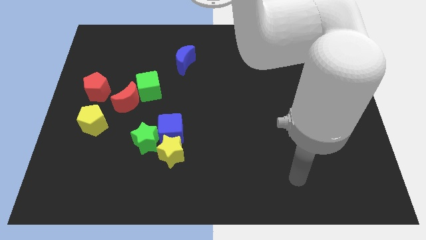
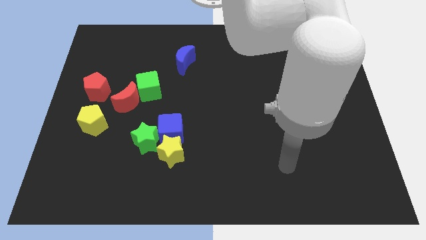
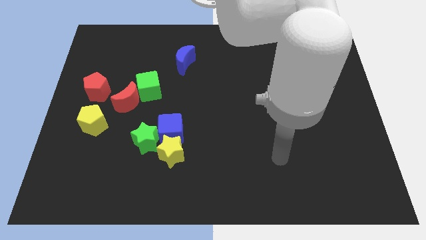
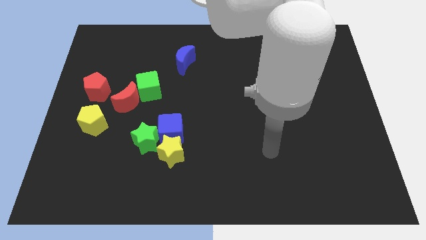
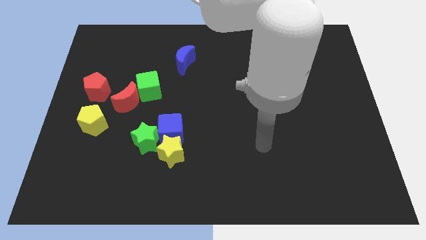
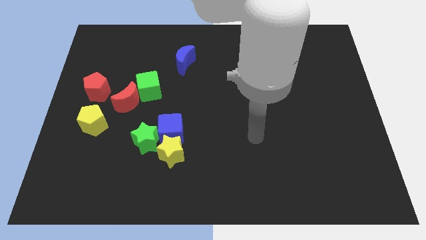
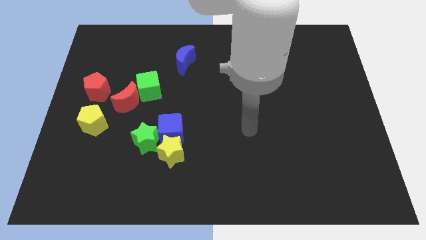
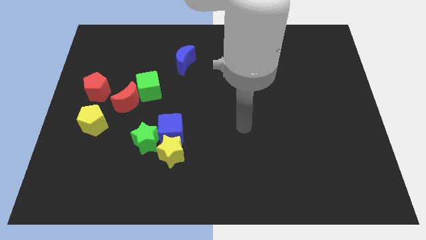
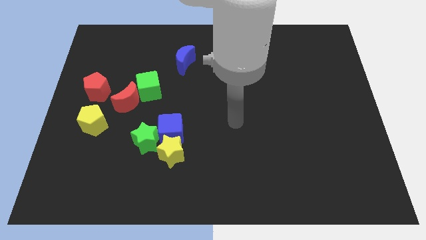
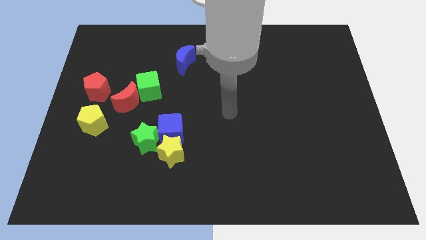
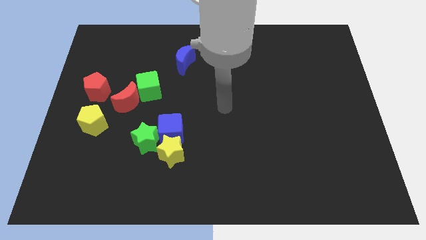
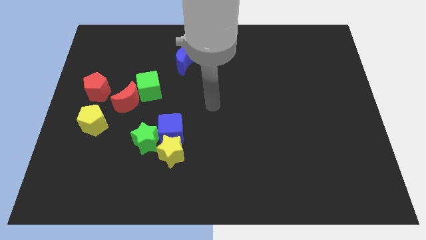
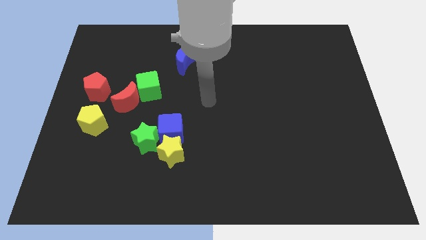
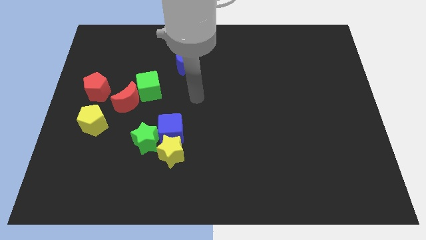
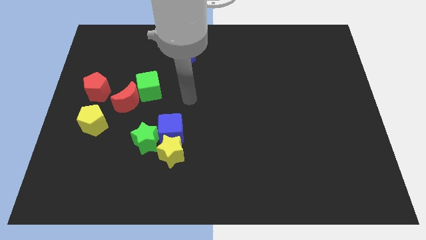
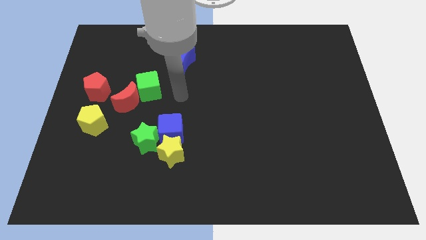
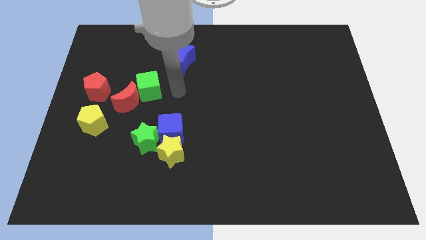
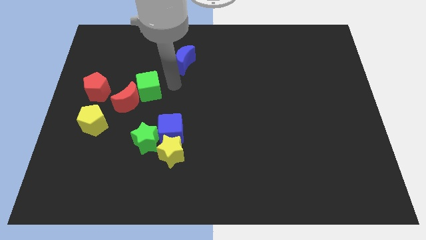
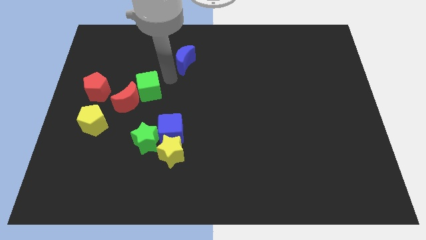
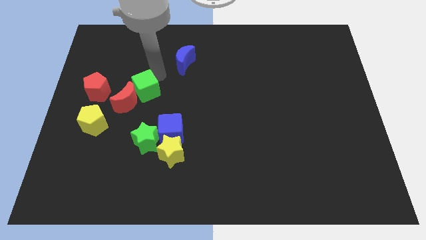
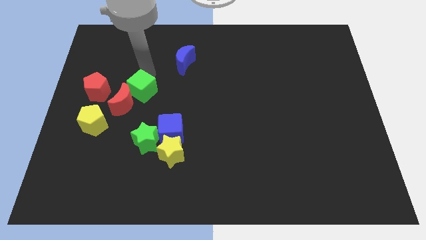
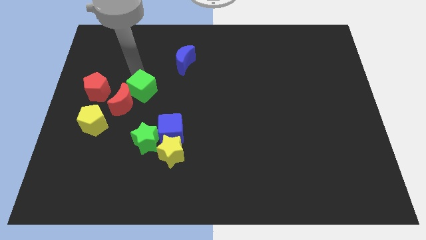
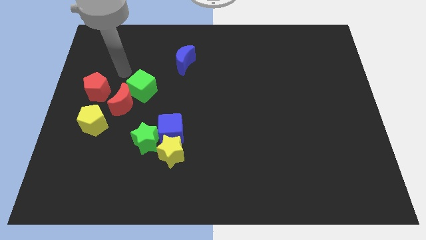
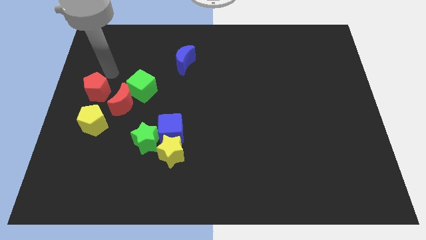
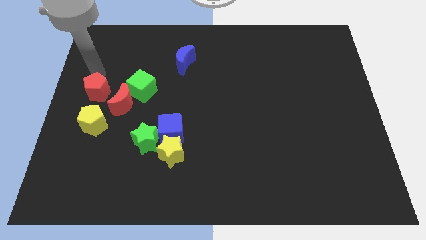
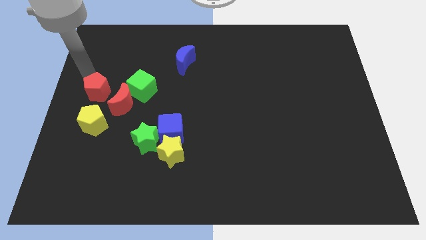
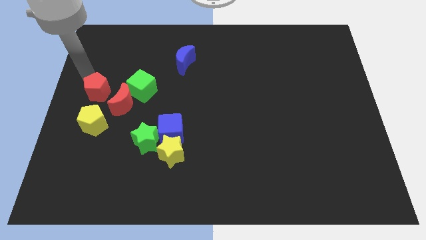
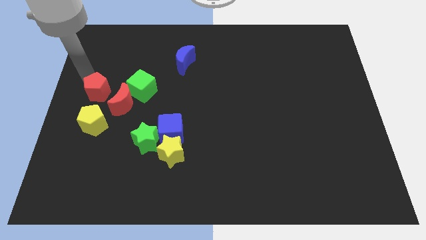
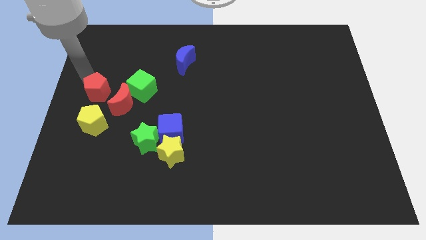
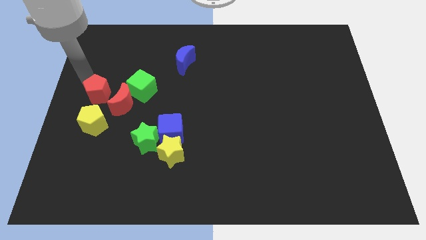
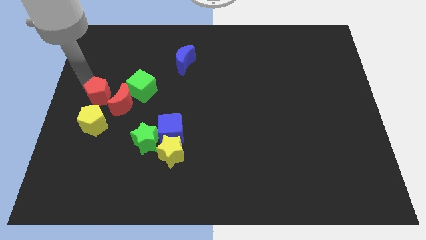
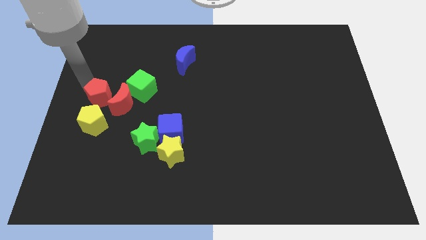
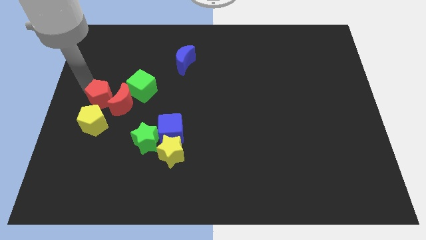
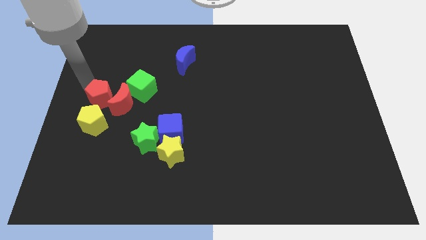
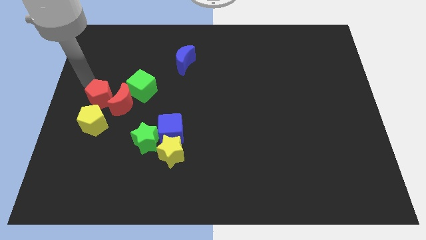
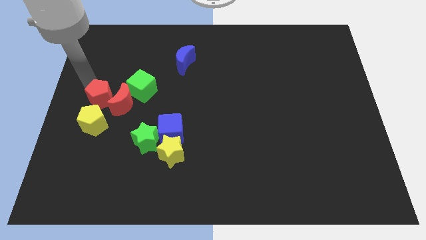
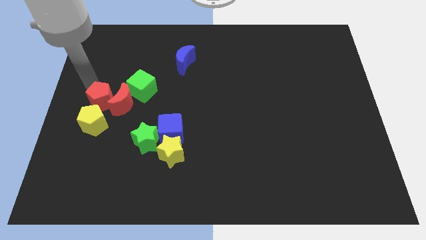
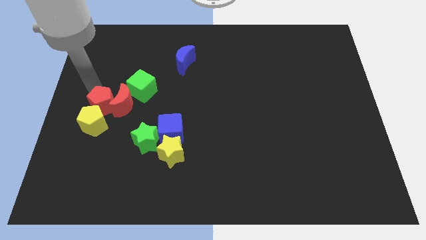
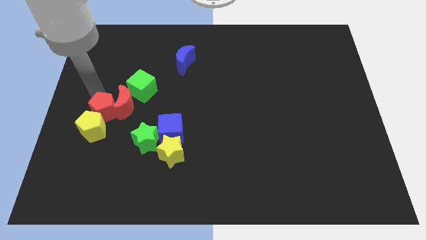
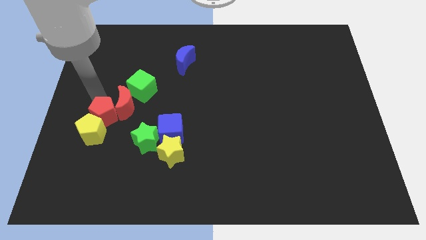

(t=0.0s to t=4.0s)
slightly push the red pentagon down

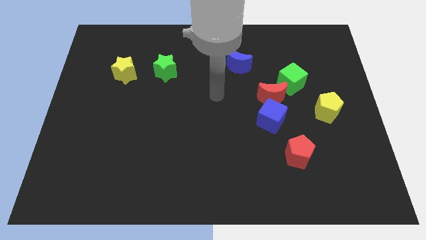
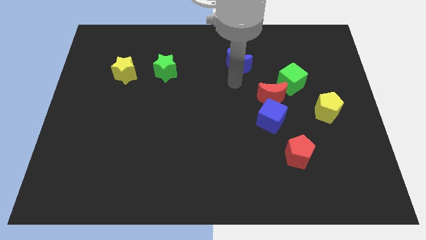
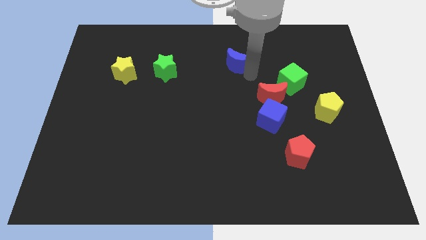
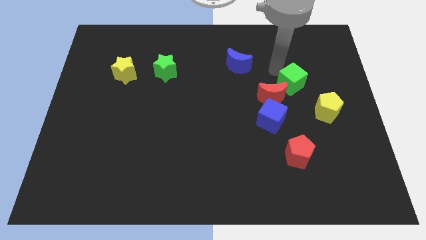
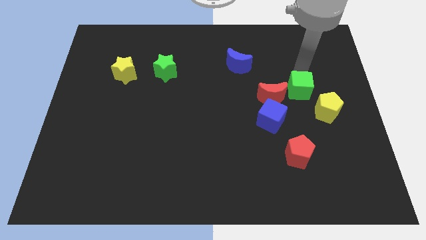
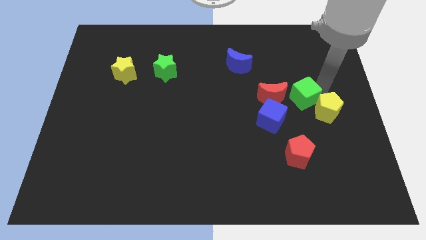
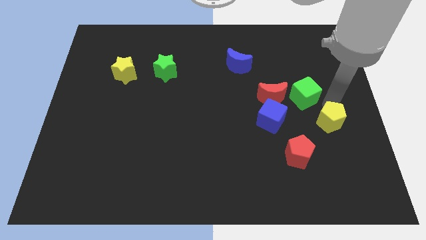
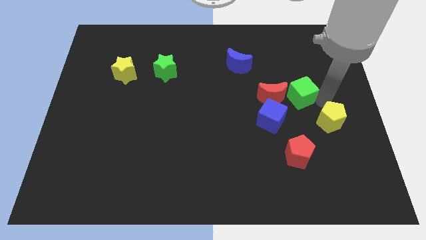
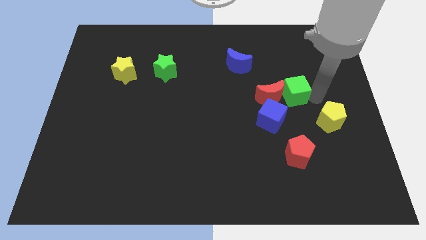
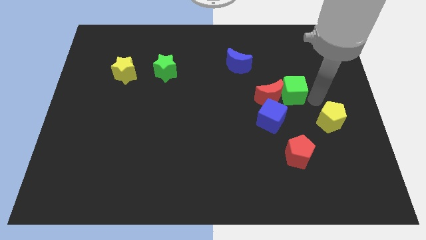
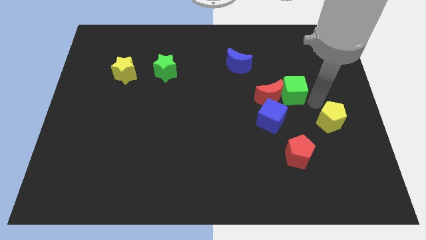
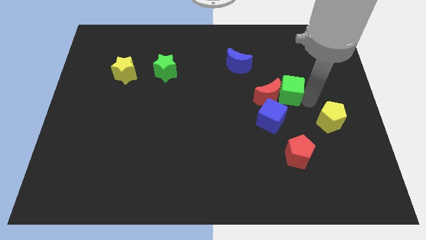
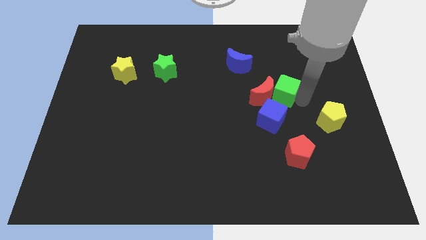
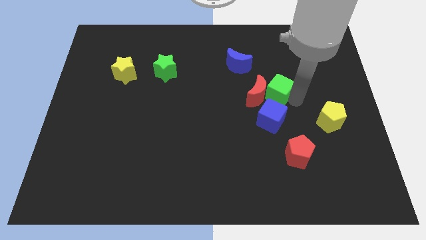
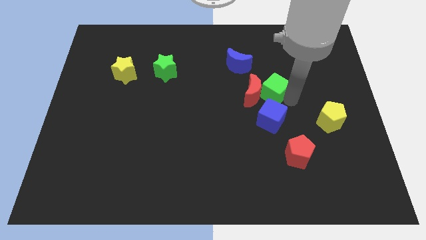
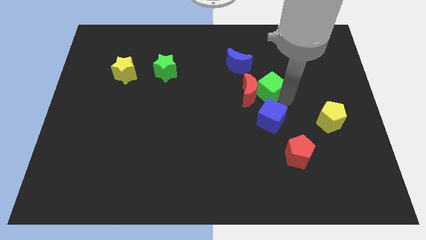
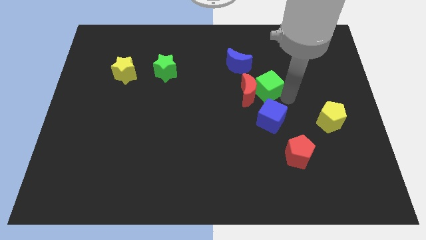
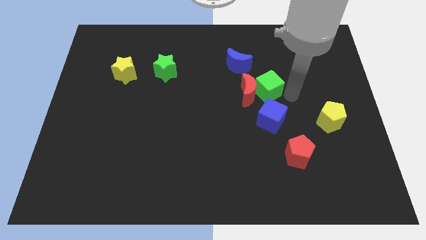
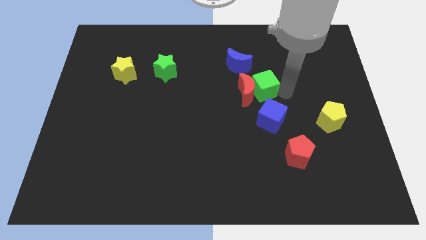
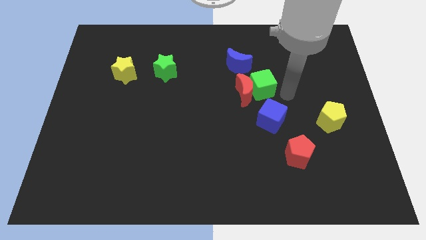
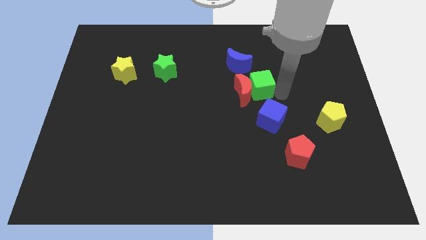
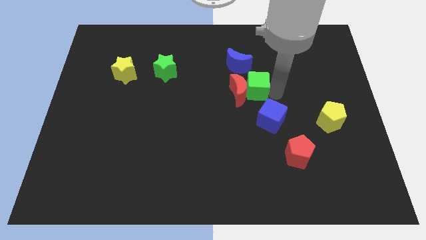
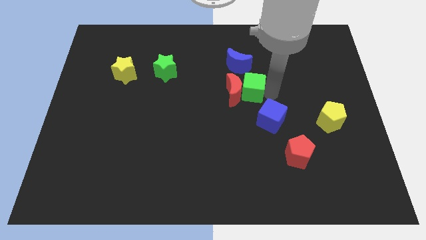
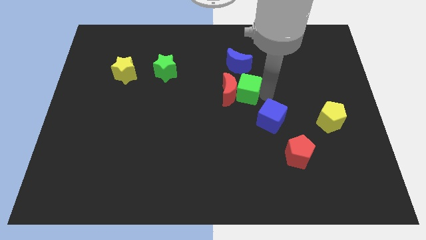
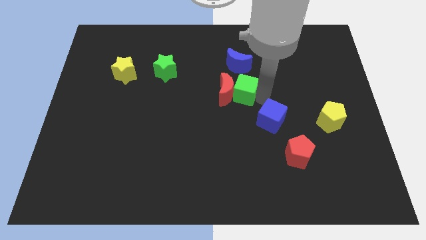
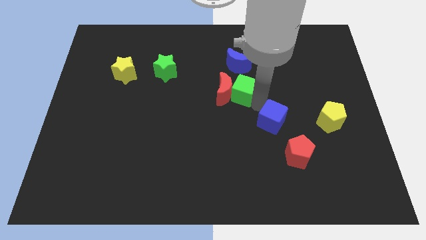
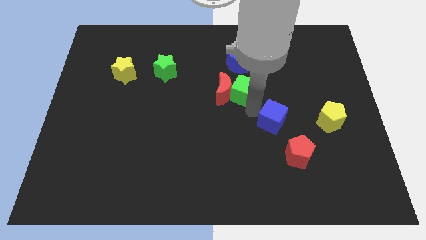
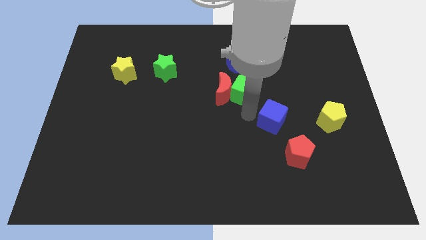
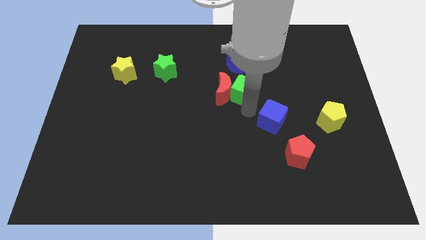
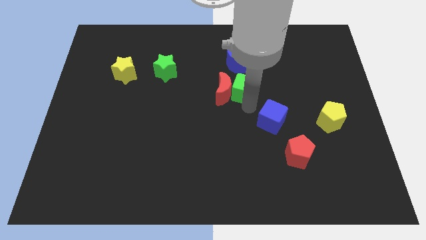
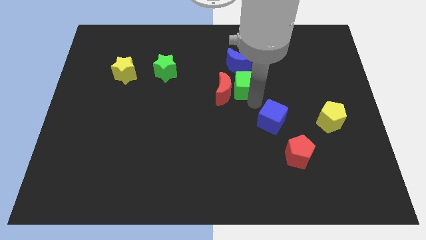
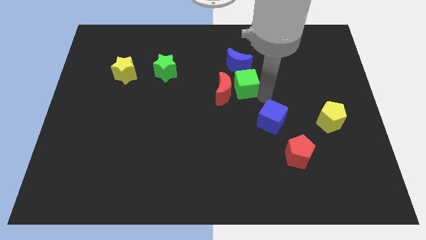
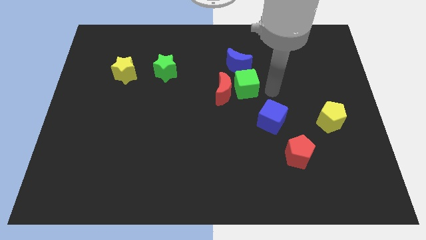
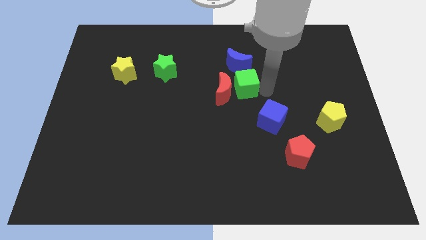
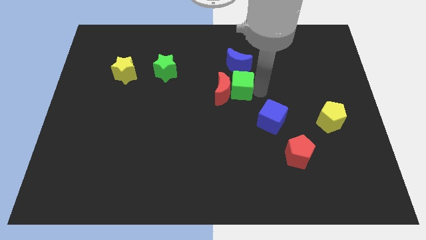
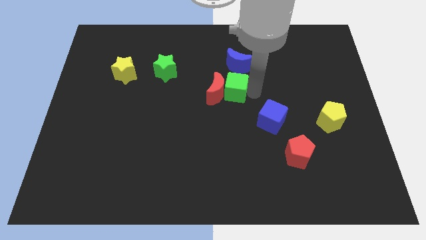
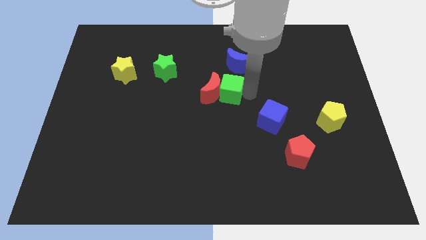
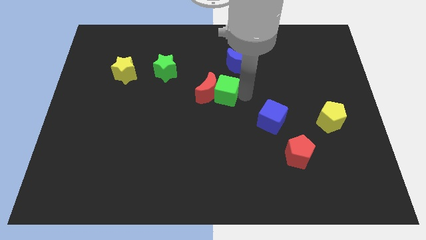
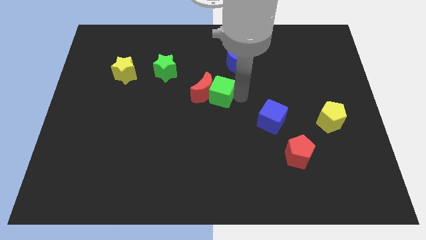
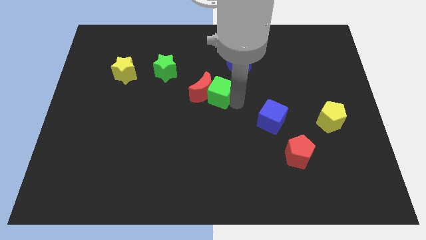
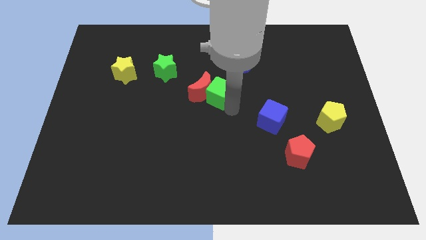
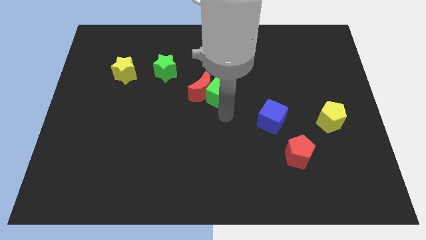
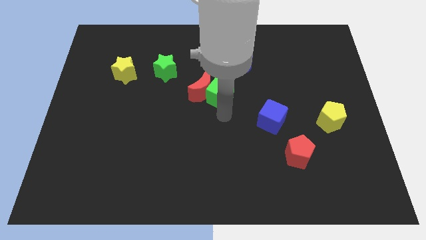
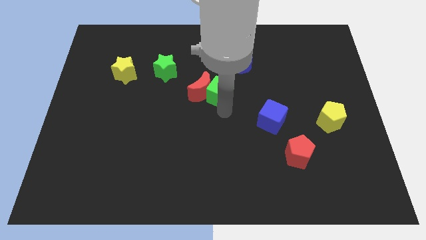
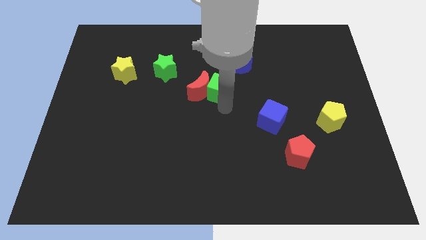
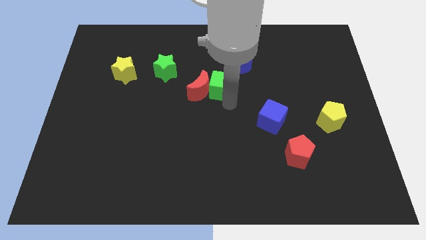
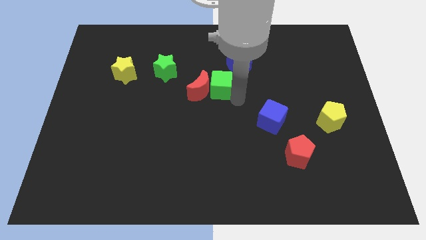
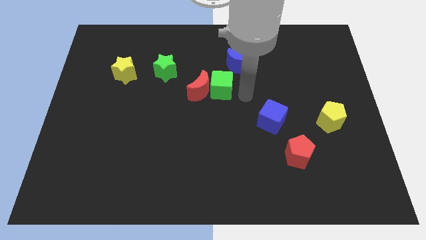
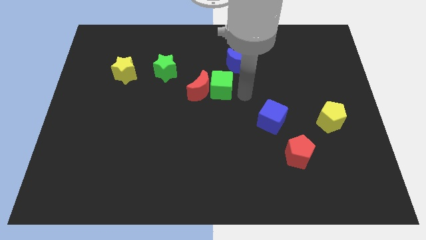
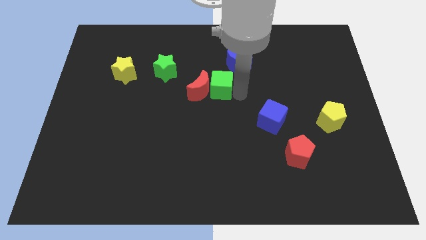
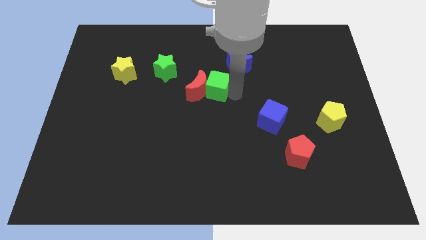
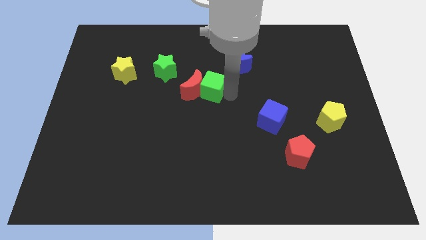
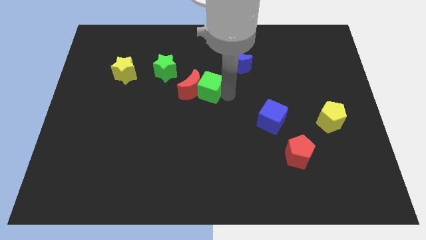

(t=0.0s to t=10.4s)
push the green cube to the left
